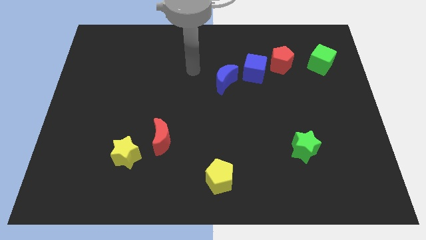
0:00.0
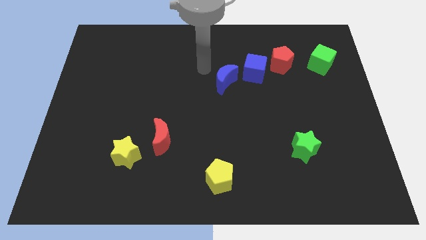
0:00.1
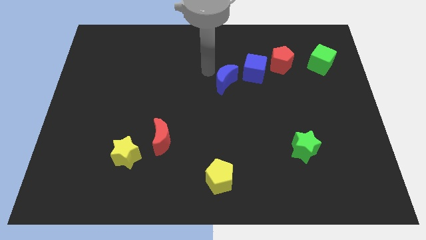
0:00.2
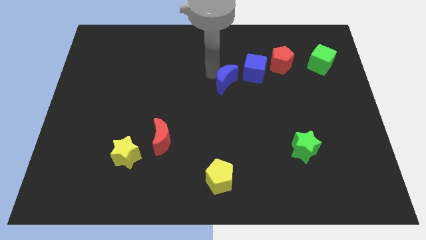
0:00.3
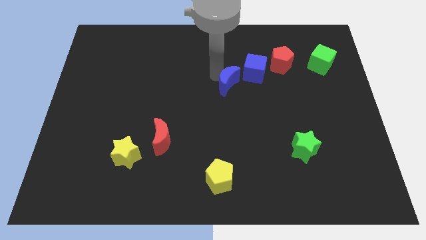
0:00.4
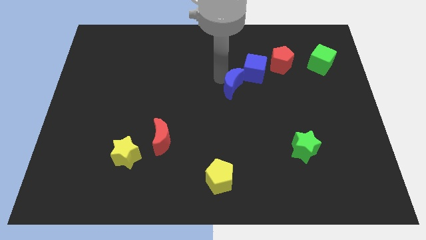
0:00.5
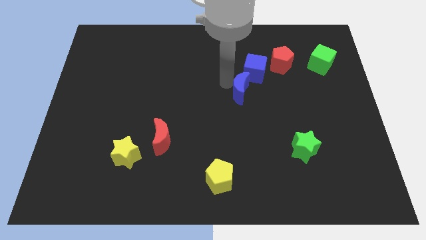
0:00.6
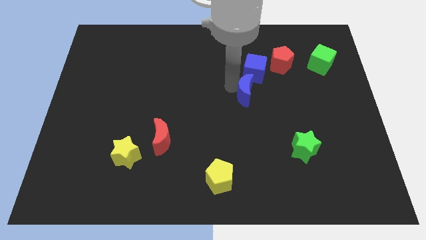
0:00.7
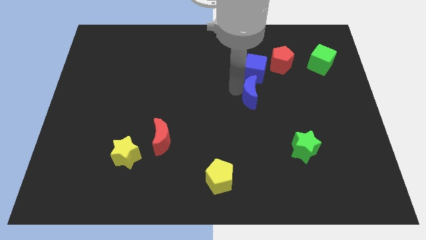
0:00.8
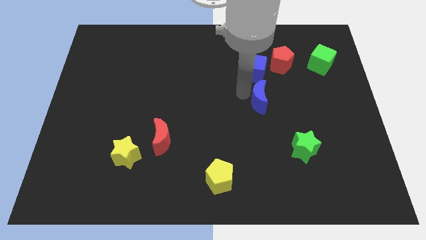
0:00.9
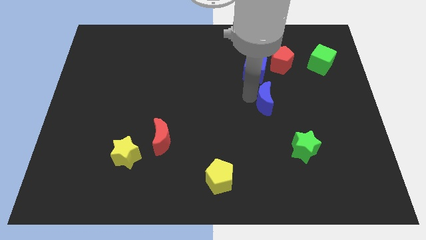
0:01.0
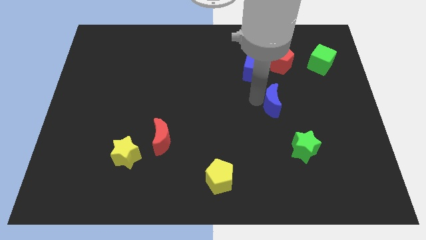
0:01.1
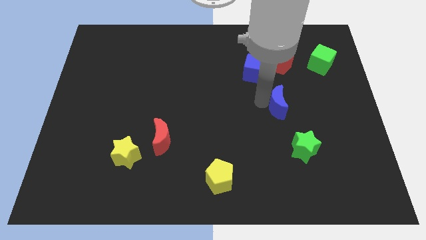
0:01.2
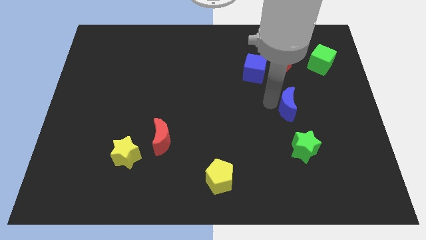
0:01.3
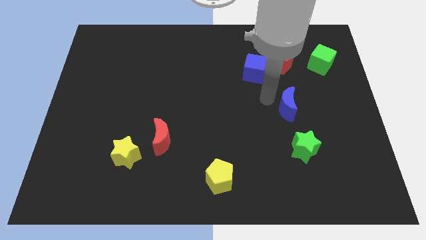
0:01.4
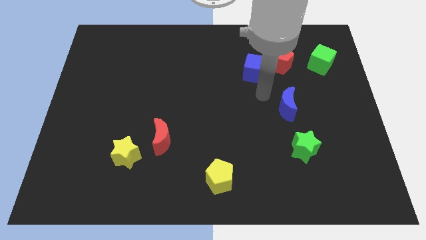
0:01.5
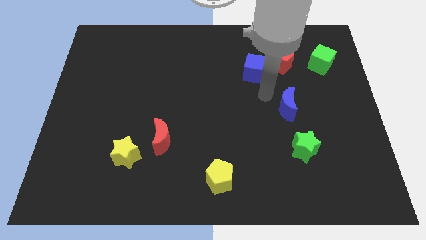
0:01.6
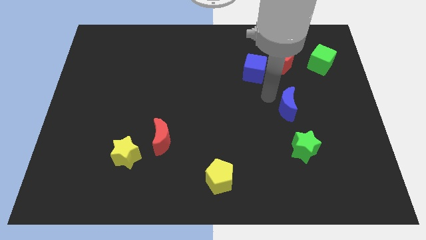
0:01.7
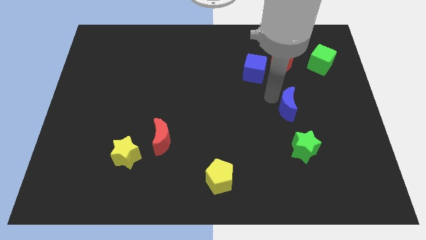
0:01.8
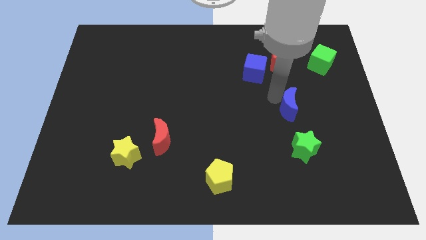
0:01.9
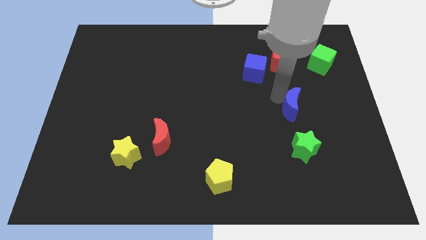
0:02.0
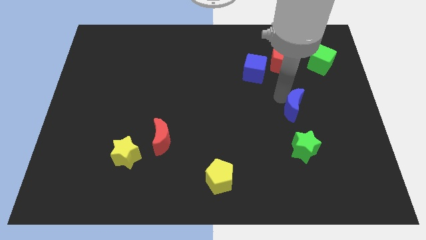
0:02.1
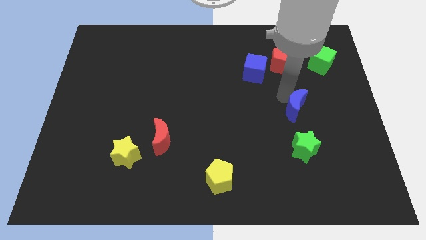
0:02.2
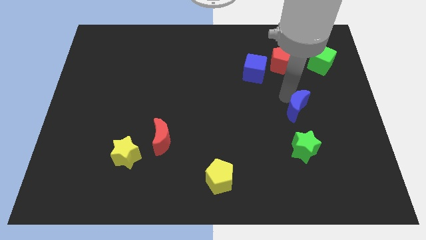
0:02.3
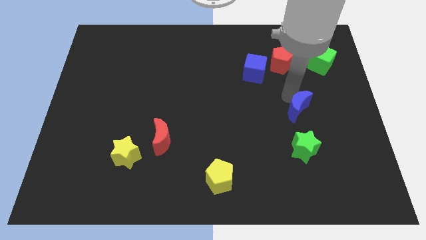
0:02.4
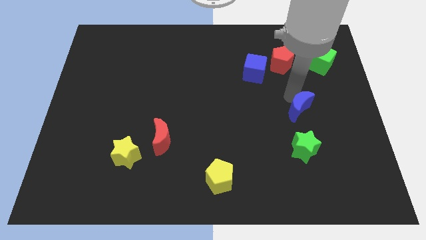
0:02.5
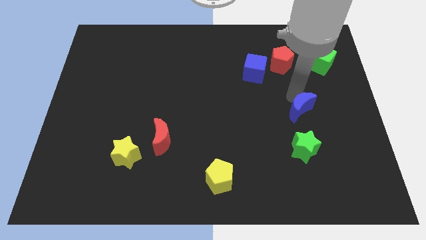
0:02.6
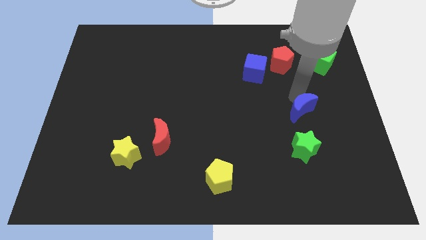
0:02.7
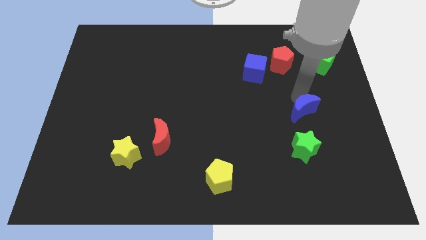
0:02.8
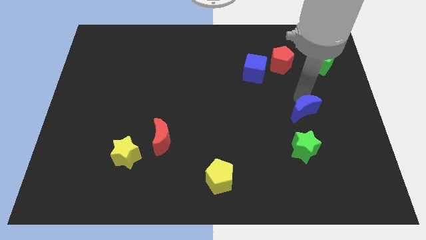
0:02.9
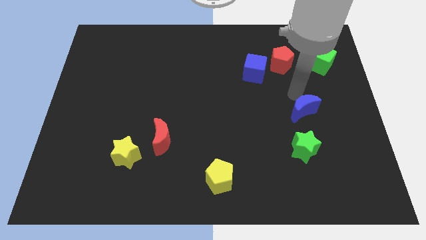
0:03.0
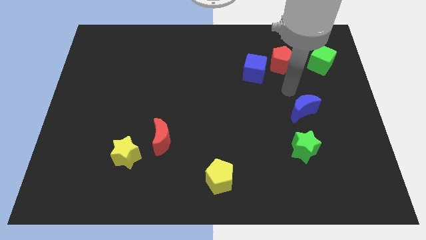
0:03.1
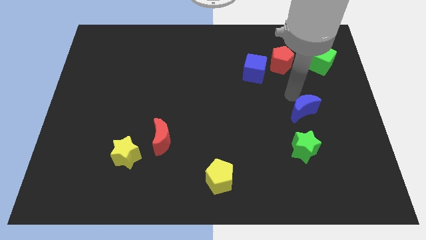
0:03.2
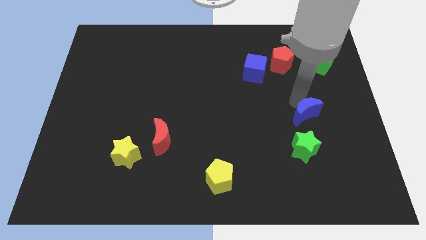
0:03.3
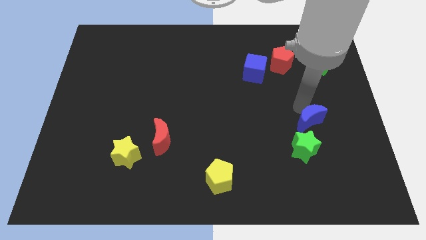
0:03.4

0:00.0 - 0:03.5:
slide the blue moon down and to the right

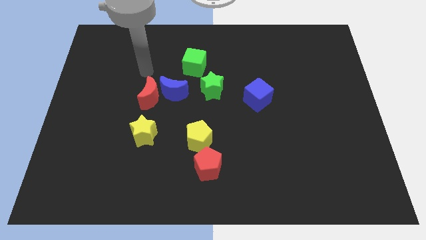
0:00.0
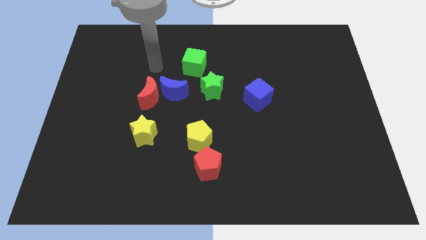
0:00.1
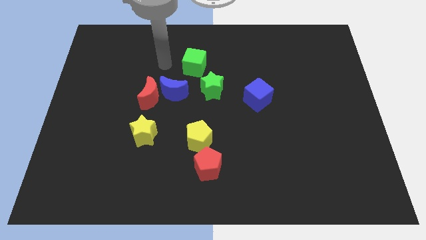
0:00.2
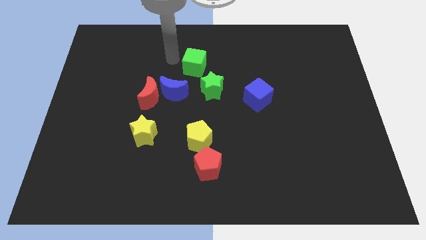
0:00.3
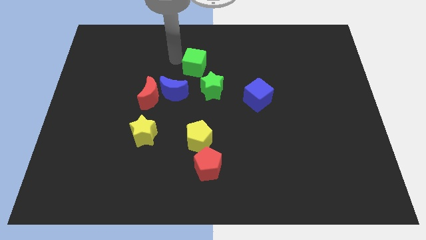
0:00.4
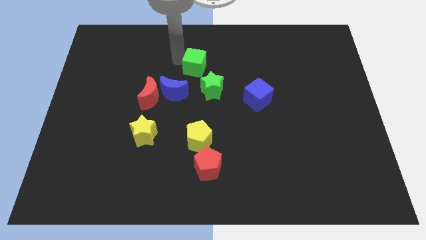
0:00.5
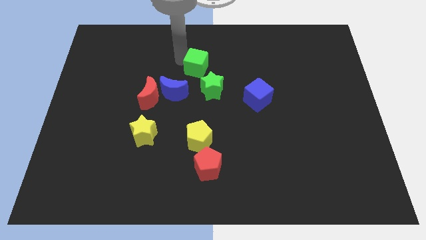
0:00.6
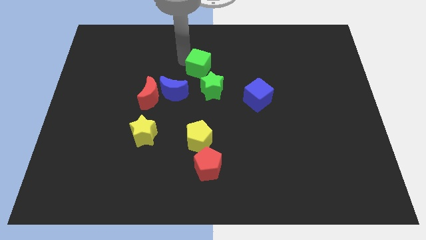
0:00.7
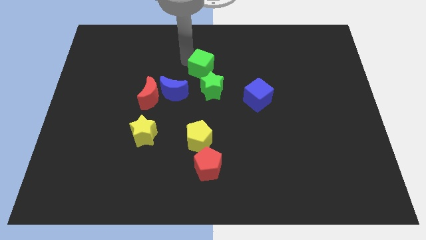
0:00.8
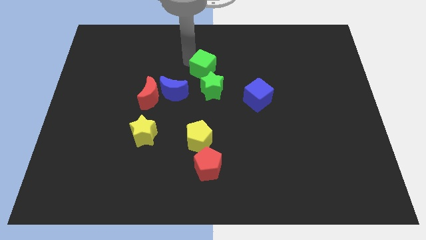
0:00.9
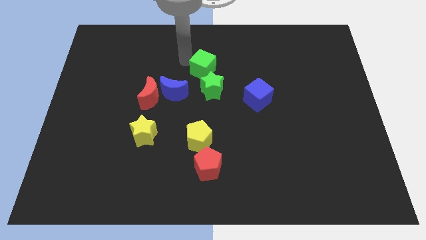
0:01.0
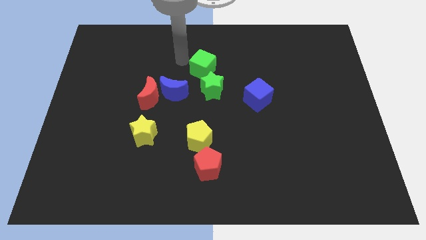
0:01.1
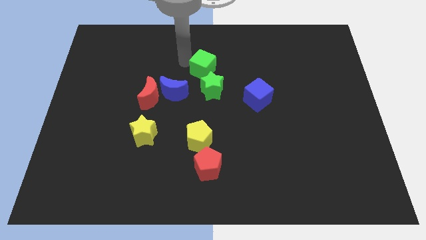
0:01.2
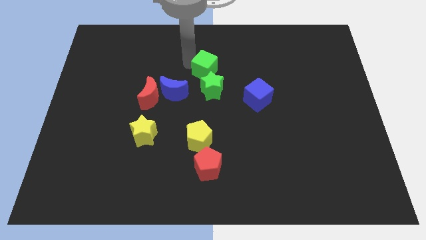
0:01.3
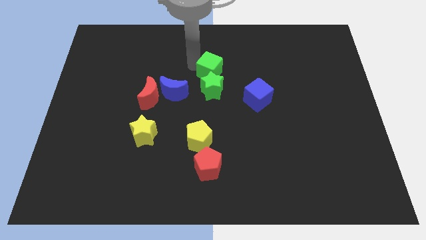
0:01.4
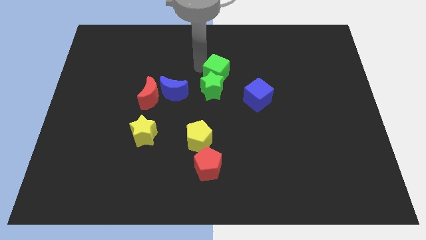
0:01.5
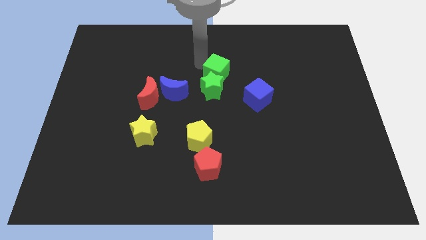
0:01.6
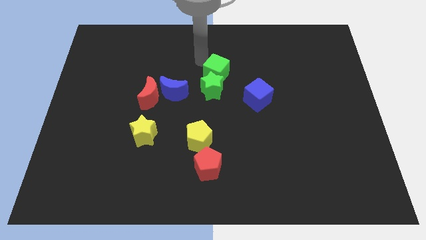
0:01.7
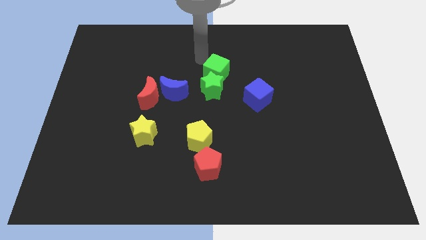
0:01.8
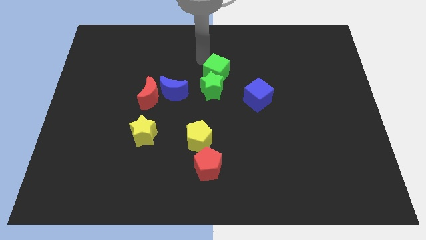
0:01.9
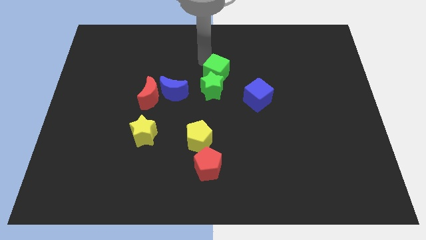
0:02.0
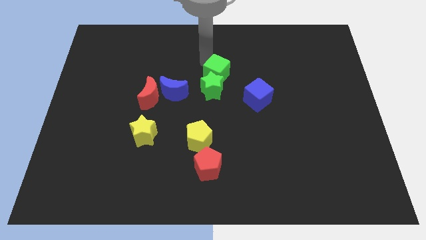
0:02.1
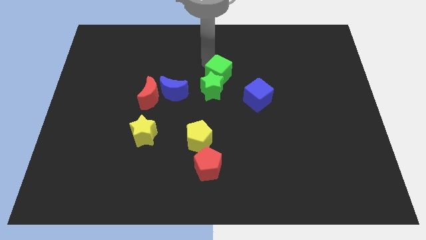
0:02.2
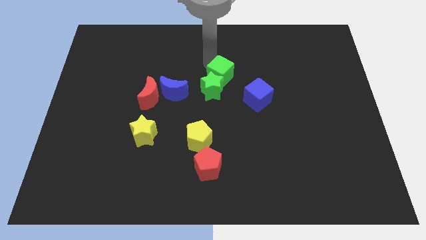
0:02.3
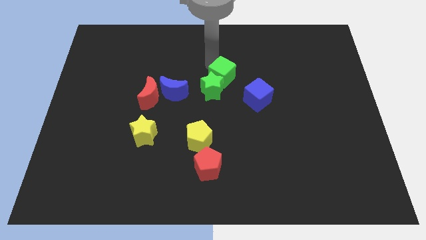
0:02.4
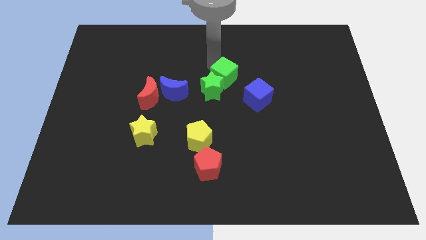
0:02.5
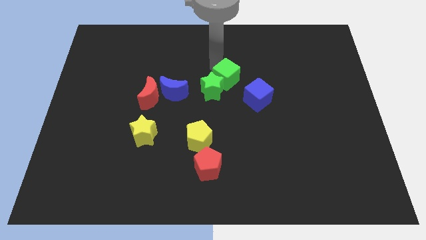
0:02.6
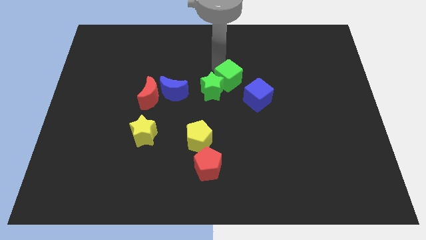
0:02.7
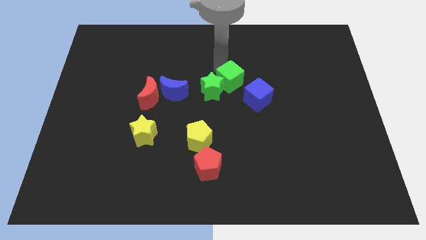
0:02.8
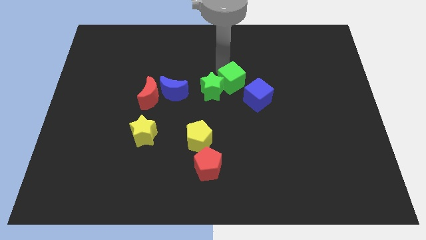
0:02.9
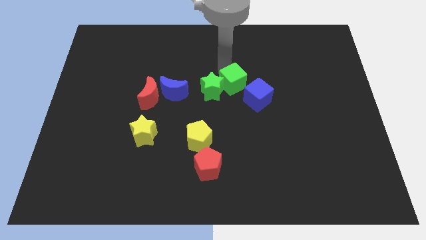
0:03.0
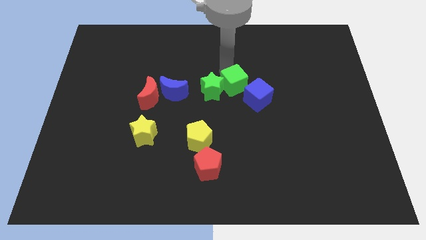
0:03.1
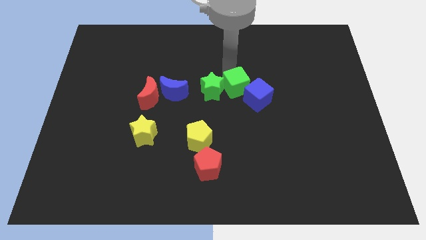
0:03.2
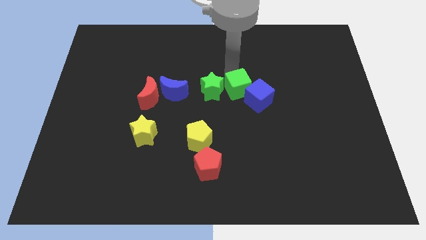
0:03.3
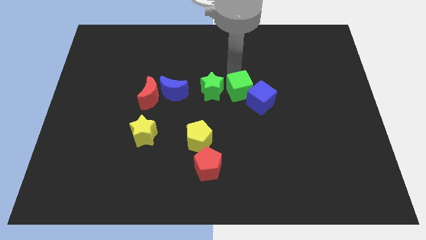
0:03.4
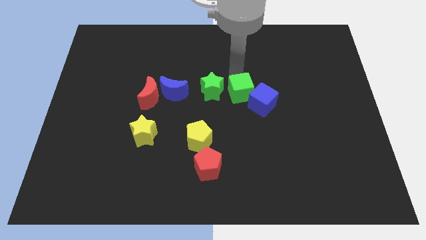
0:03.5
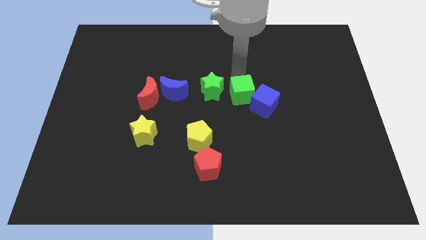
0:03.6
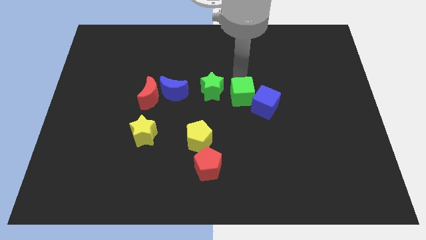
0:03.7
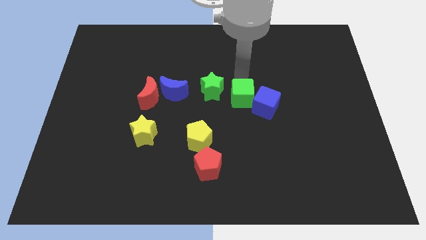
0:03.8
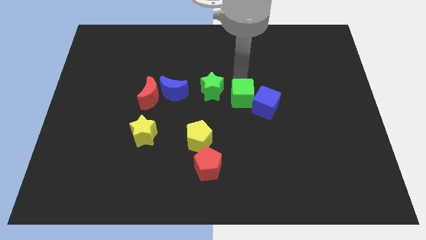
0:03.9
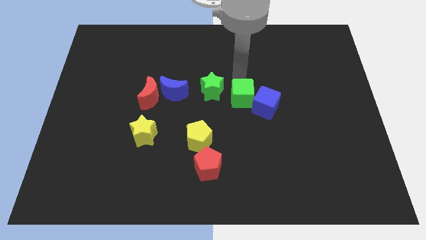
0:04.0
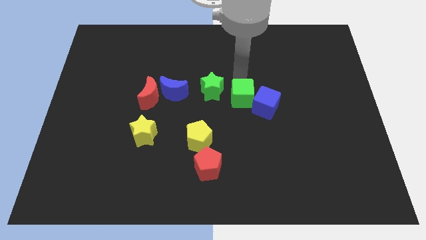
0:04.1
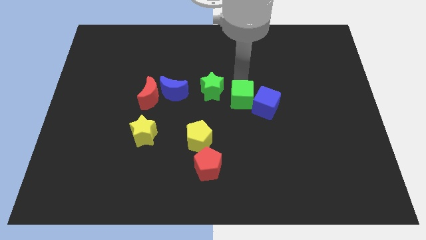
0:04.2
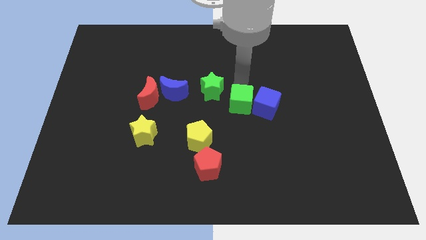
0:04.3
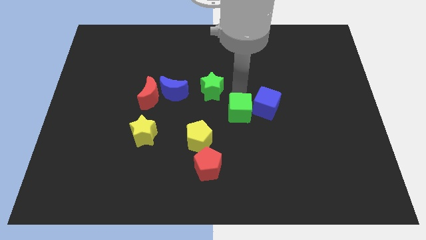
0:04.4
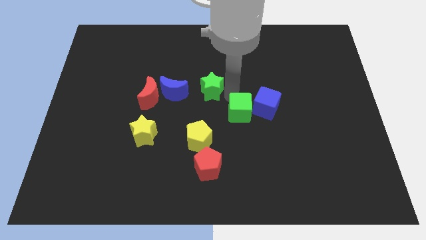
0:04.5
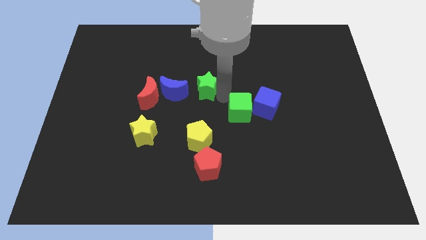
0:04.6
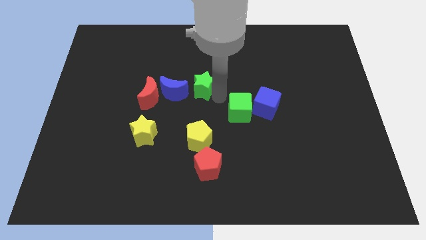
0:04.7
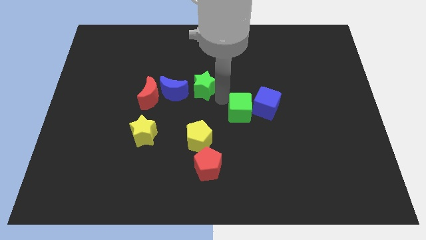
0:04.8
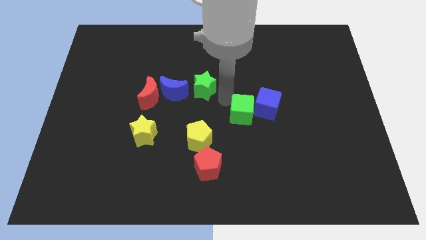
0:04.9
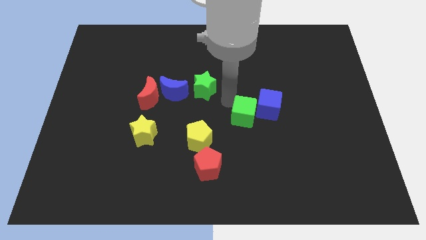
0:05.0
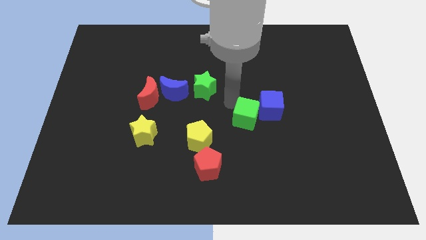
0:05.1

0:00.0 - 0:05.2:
slide the green cube down and then to the right
